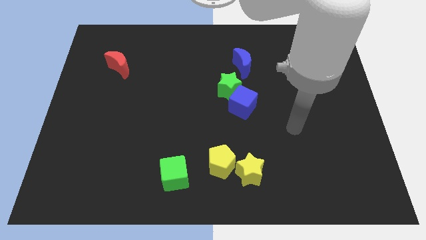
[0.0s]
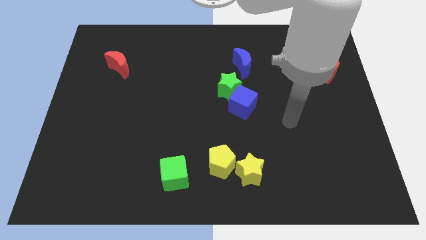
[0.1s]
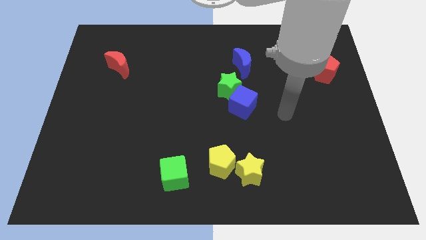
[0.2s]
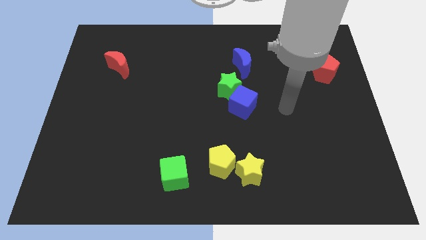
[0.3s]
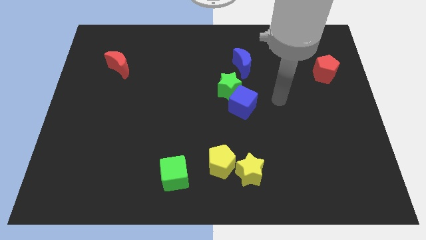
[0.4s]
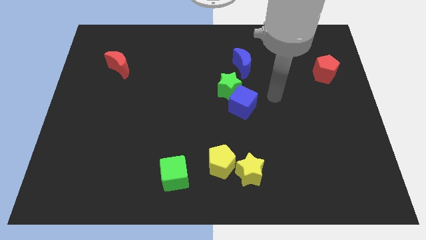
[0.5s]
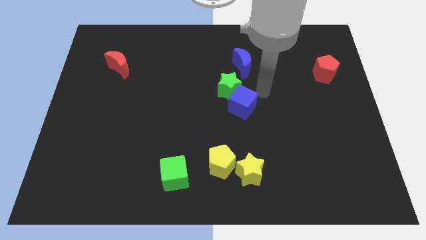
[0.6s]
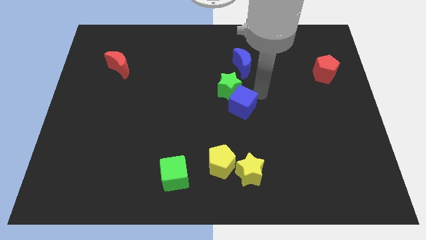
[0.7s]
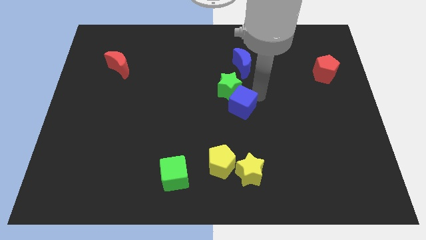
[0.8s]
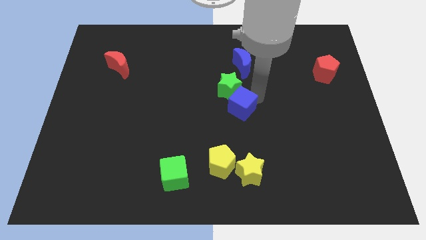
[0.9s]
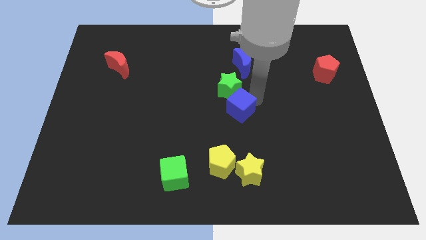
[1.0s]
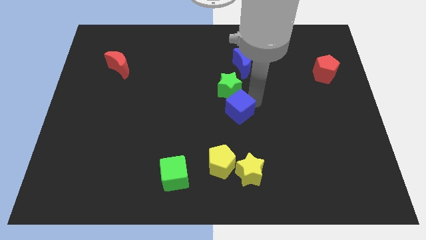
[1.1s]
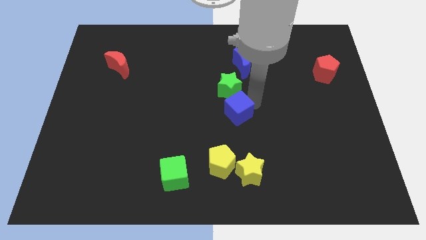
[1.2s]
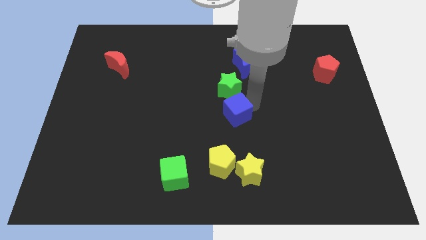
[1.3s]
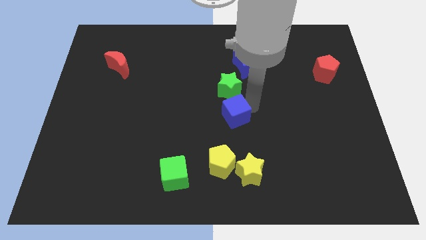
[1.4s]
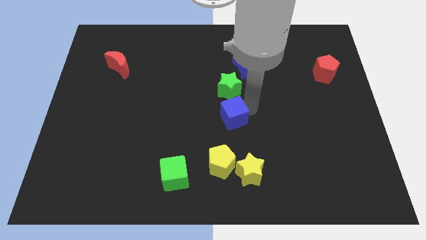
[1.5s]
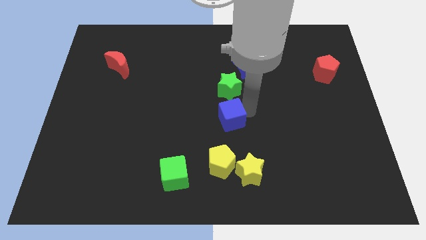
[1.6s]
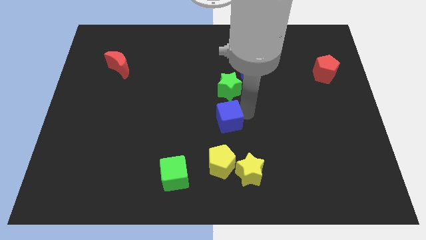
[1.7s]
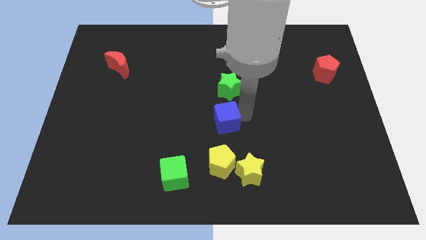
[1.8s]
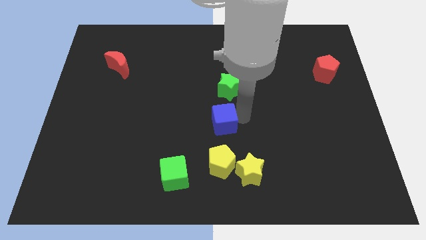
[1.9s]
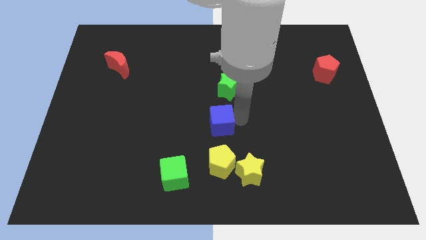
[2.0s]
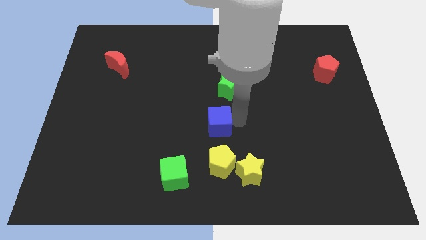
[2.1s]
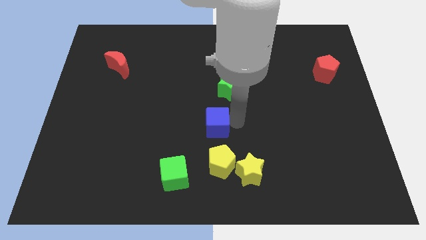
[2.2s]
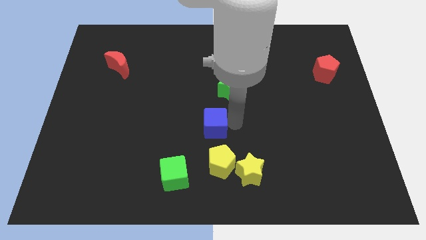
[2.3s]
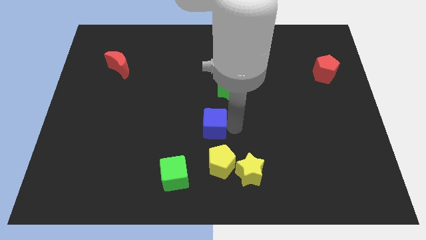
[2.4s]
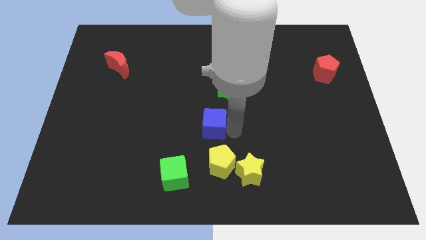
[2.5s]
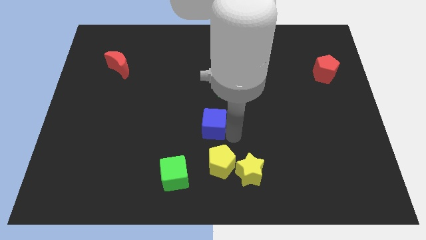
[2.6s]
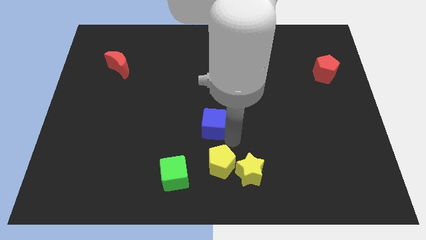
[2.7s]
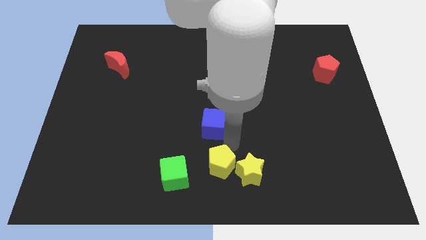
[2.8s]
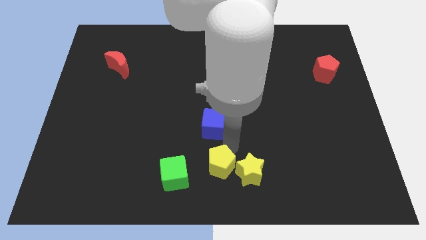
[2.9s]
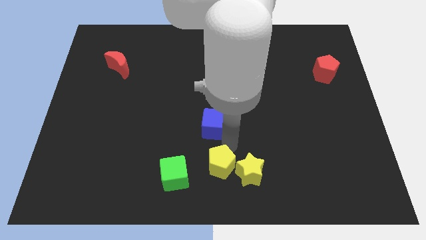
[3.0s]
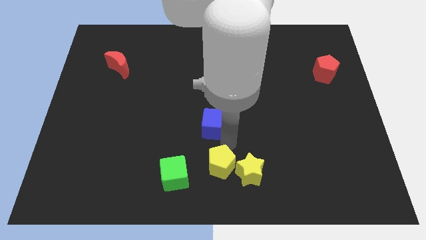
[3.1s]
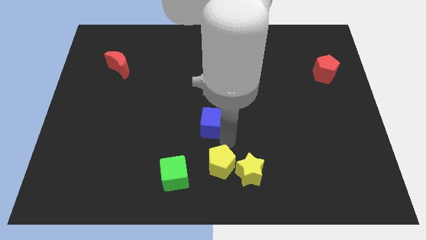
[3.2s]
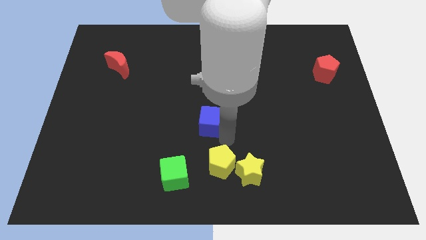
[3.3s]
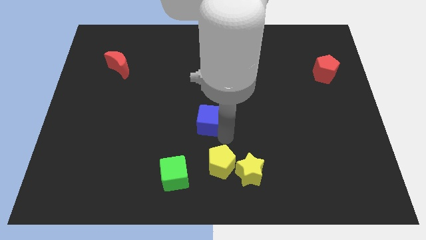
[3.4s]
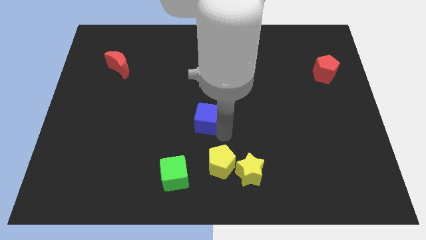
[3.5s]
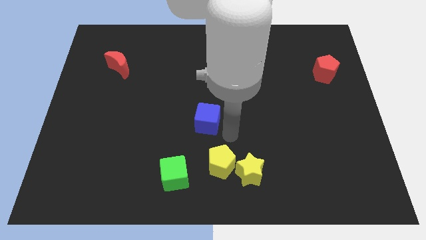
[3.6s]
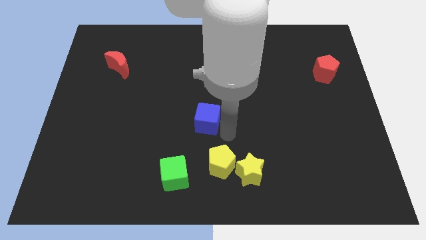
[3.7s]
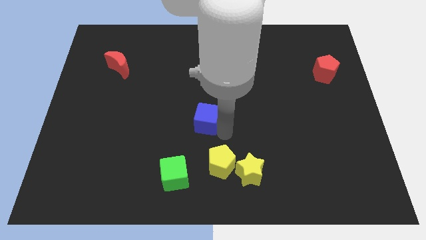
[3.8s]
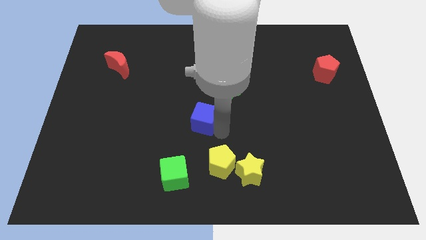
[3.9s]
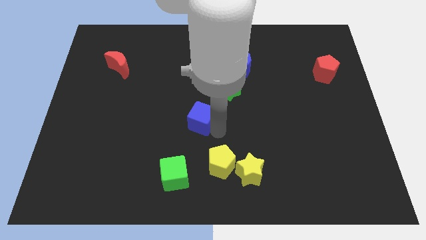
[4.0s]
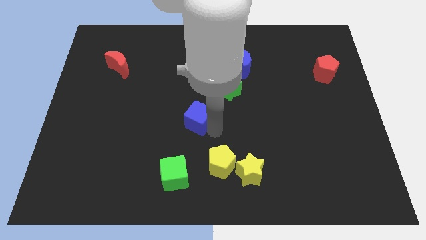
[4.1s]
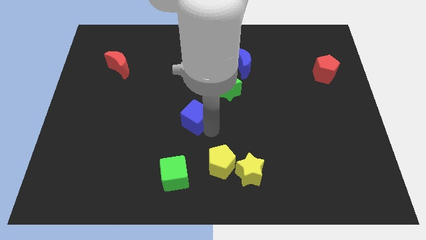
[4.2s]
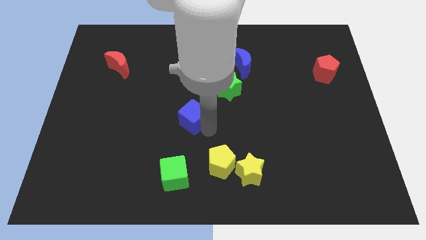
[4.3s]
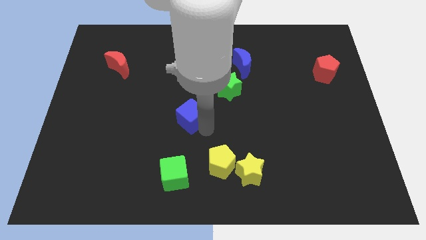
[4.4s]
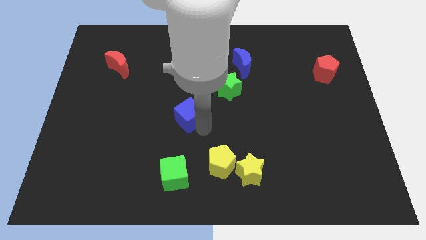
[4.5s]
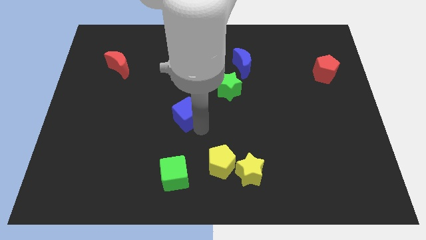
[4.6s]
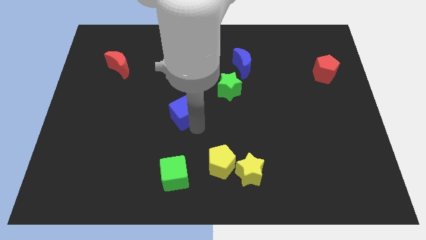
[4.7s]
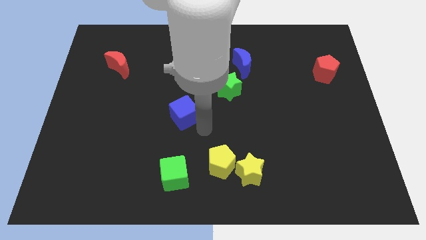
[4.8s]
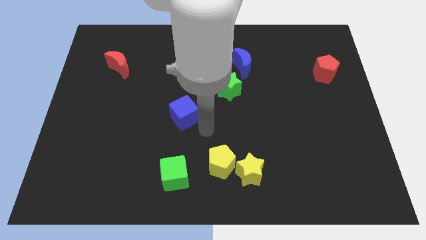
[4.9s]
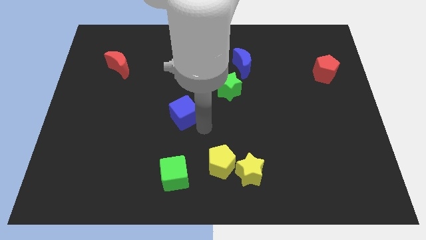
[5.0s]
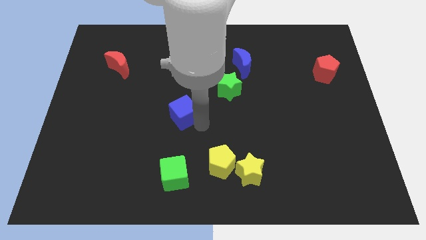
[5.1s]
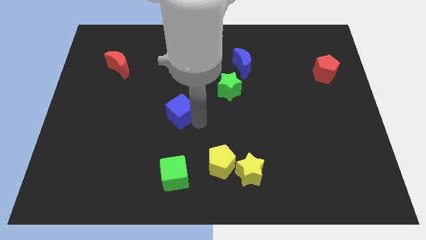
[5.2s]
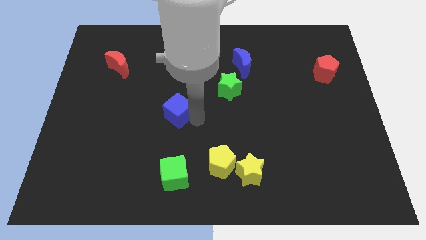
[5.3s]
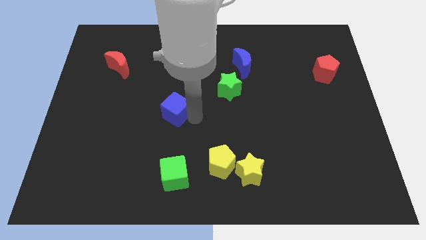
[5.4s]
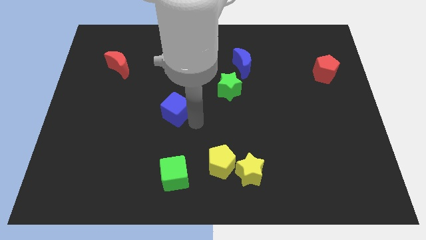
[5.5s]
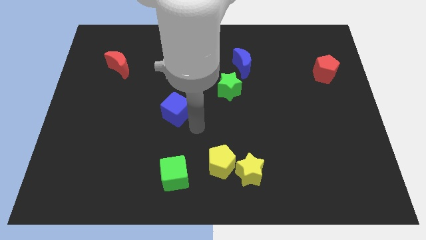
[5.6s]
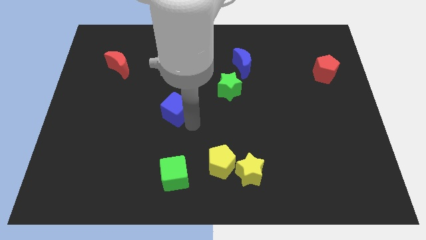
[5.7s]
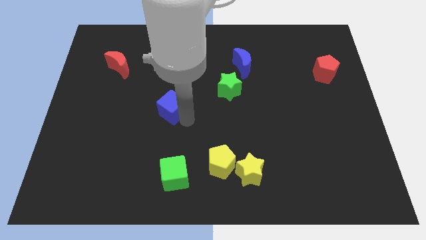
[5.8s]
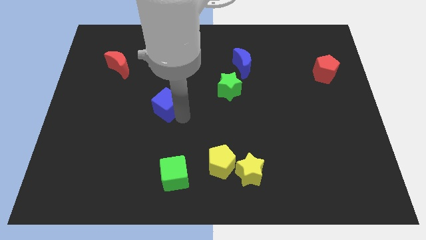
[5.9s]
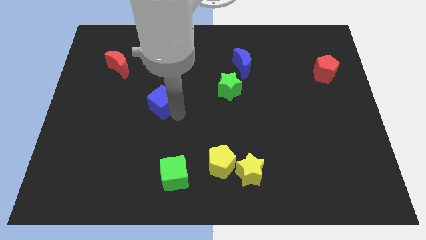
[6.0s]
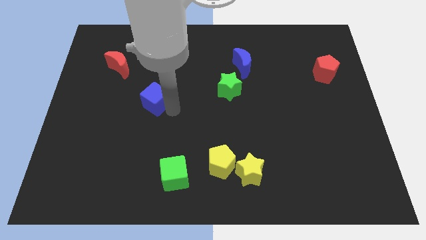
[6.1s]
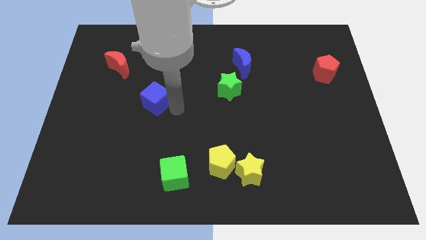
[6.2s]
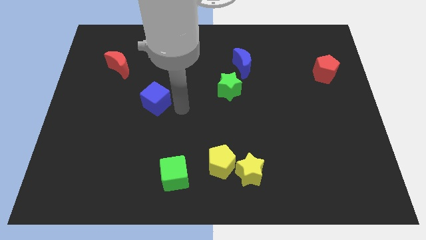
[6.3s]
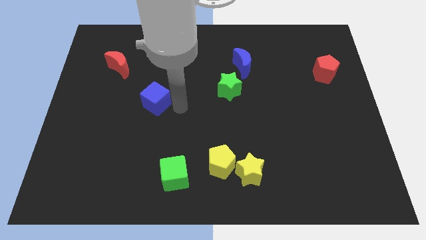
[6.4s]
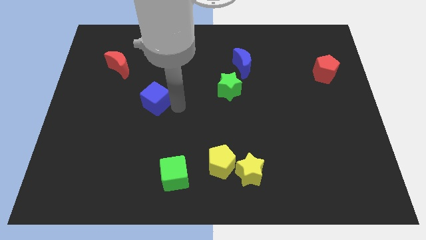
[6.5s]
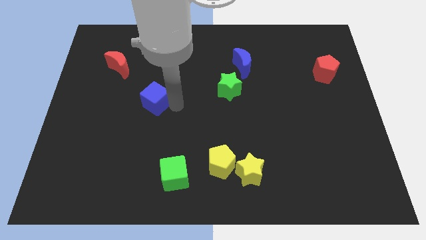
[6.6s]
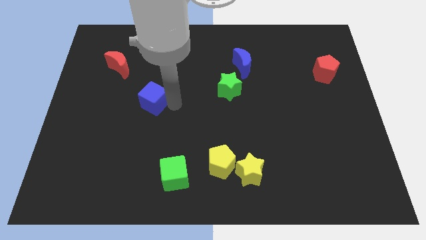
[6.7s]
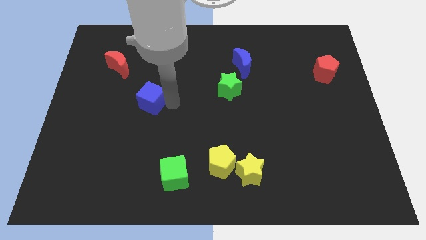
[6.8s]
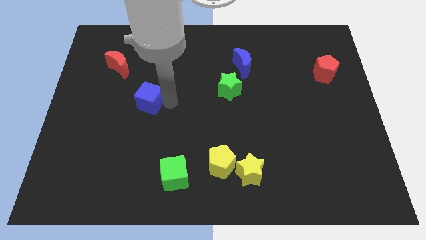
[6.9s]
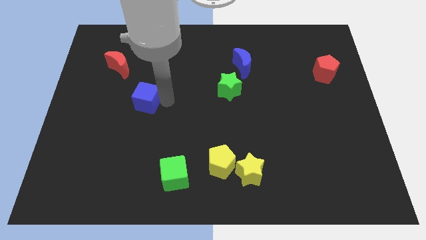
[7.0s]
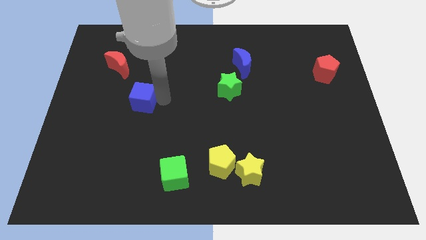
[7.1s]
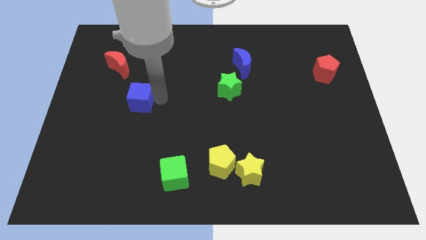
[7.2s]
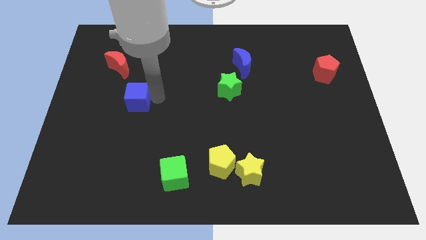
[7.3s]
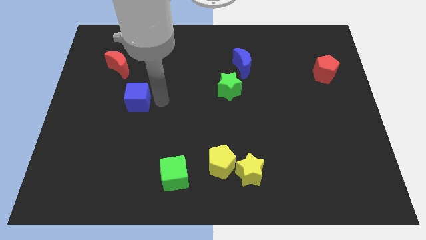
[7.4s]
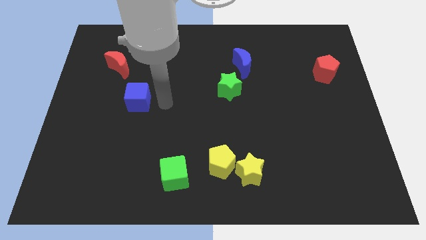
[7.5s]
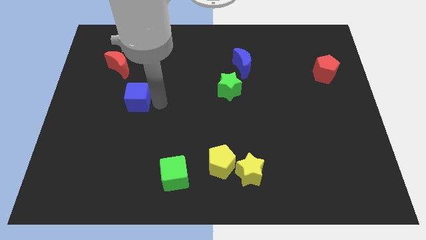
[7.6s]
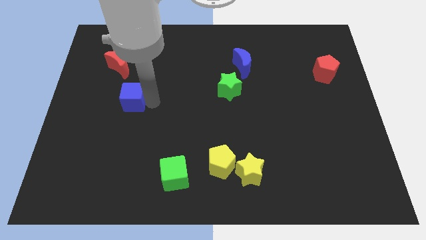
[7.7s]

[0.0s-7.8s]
move the blue cube to the bottom of the red moon
